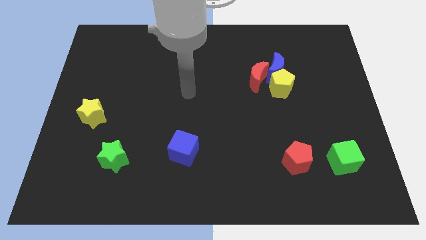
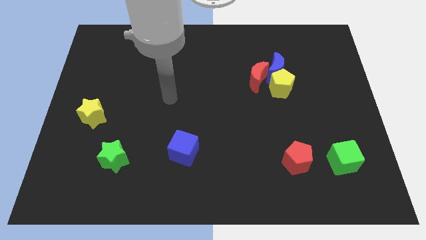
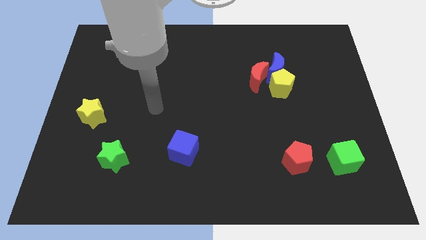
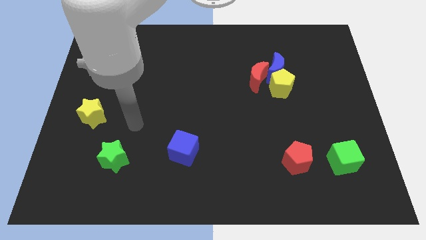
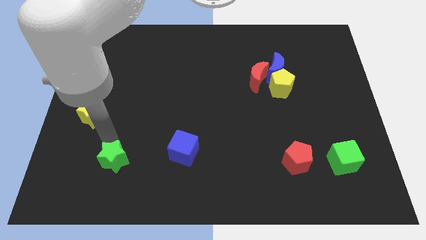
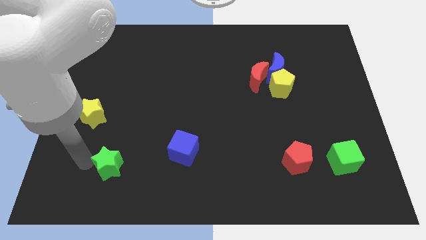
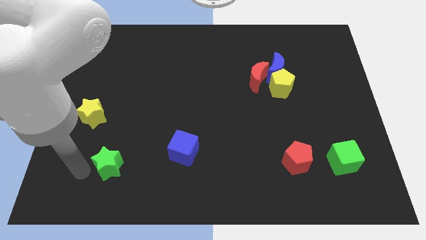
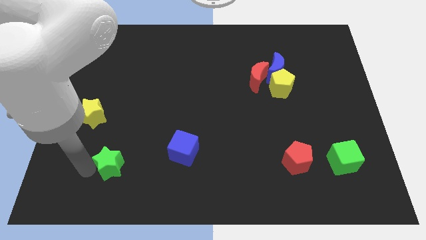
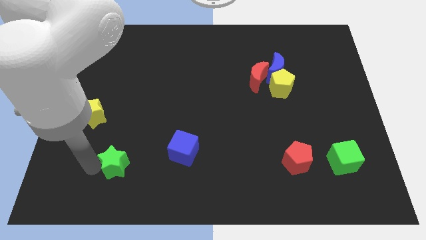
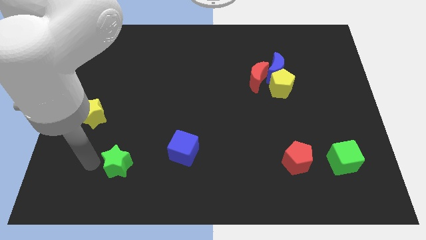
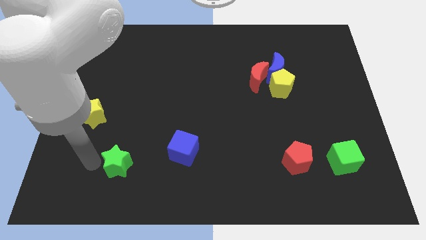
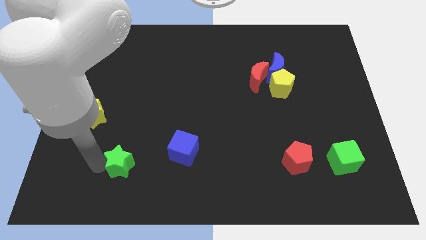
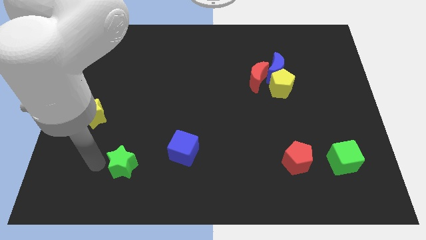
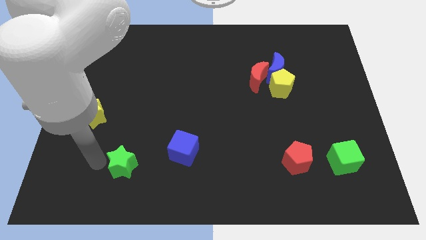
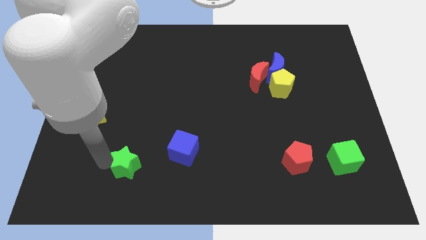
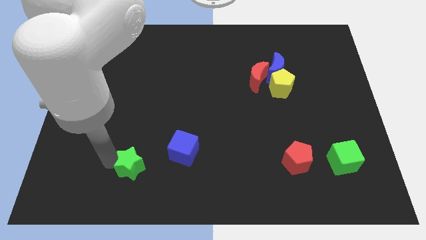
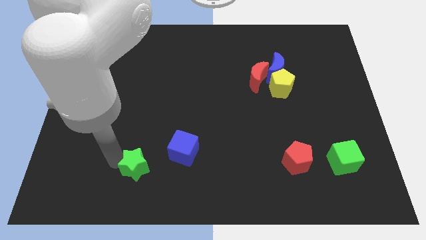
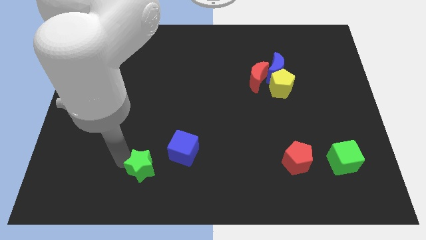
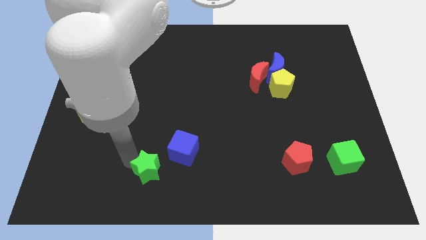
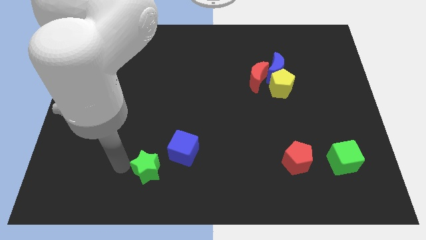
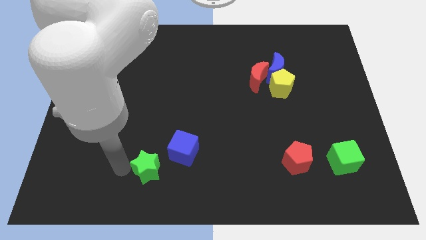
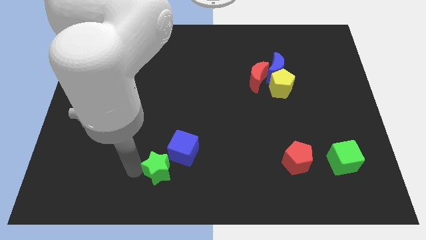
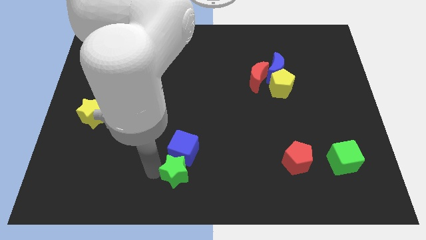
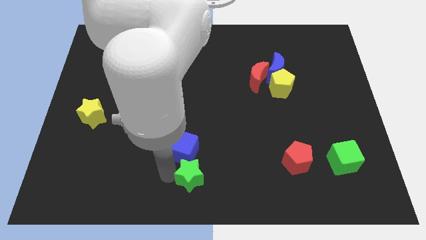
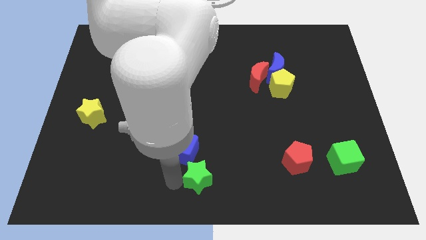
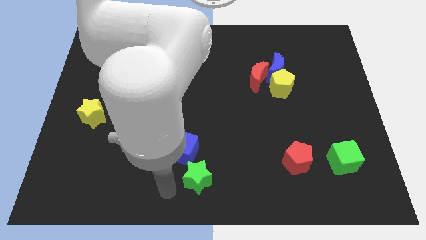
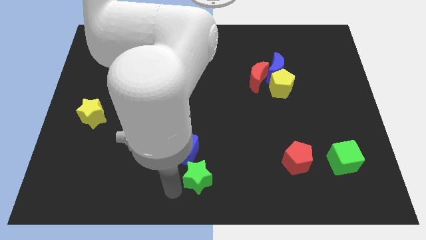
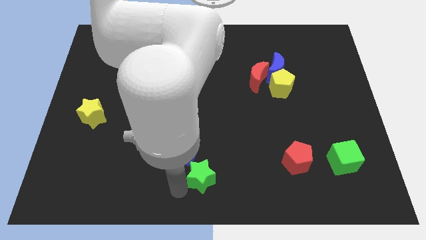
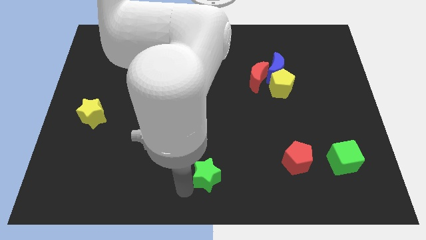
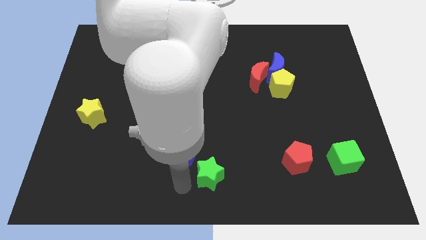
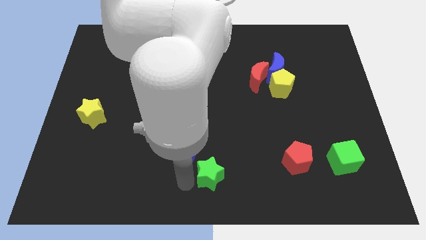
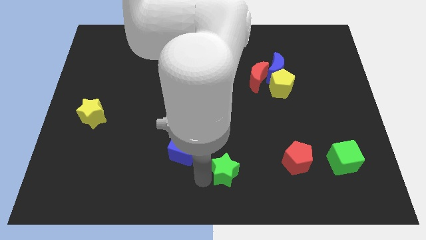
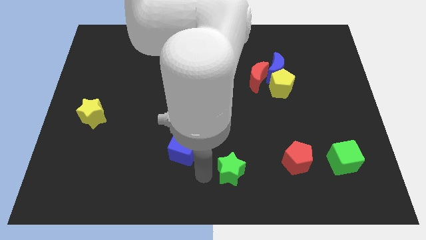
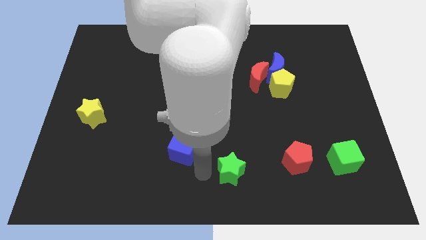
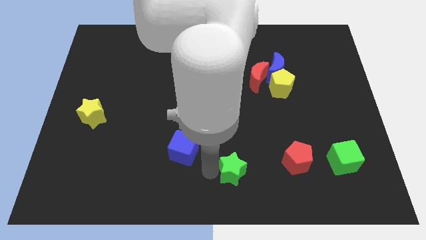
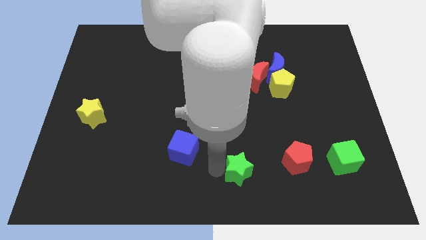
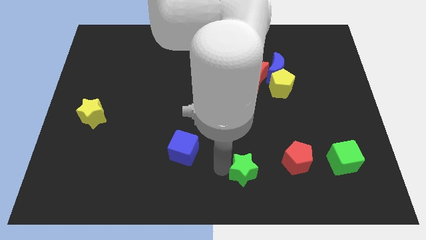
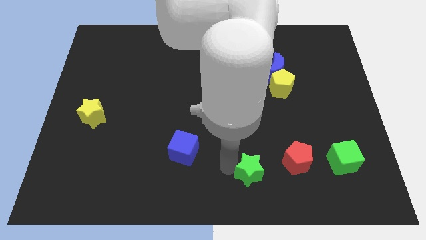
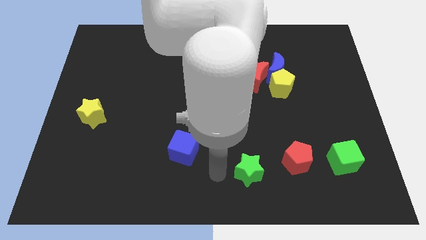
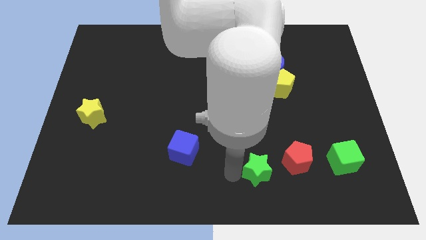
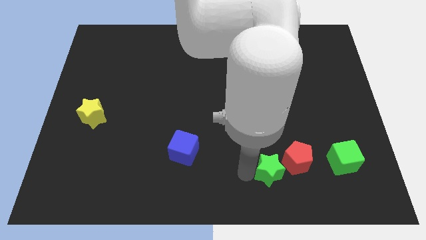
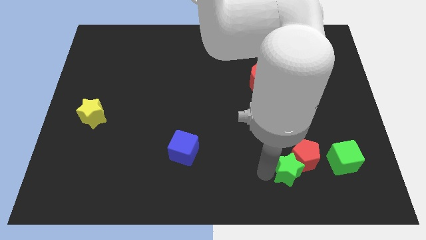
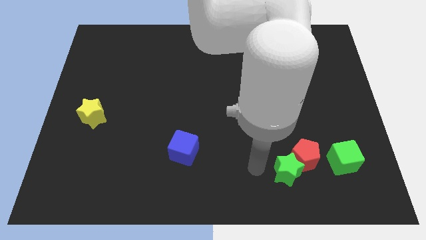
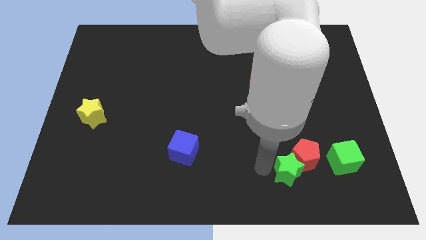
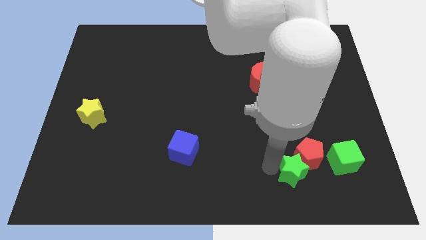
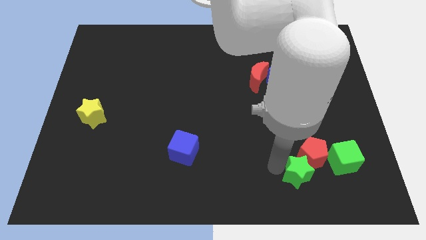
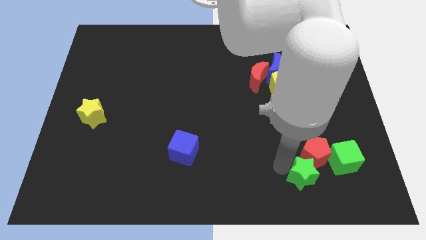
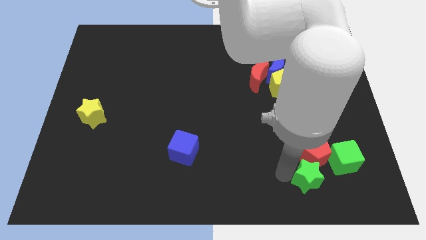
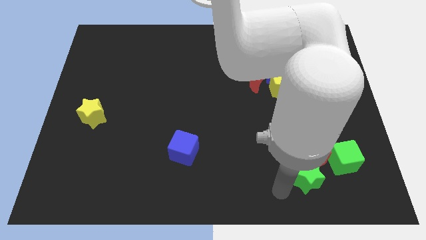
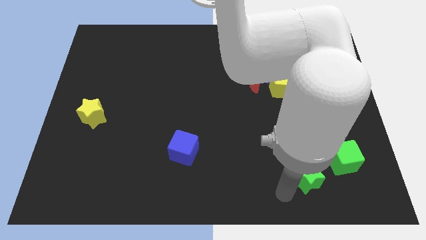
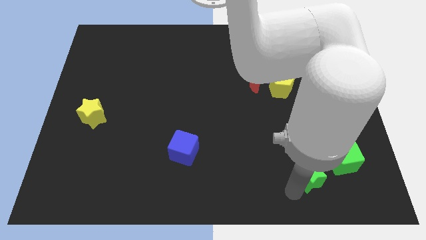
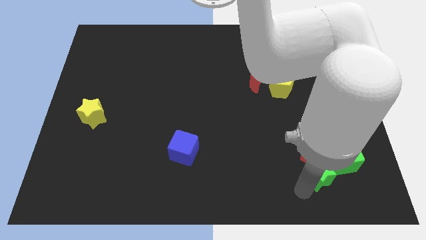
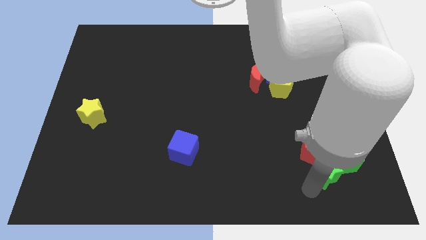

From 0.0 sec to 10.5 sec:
push the green star next to the green cube

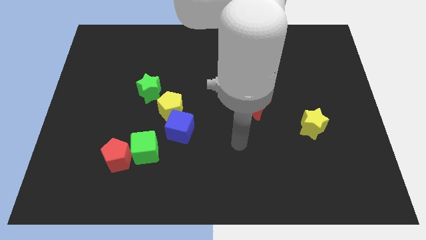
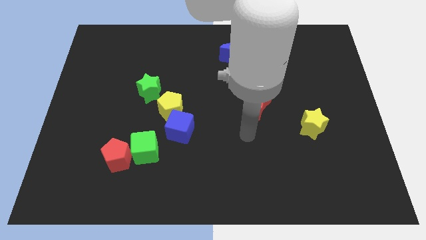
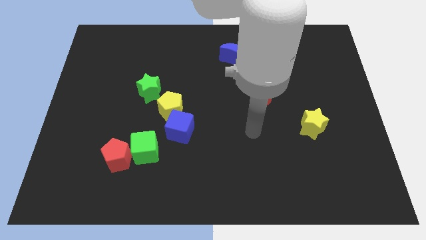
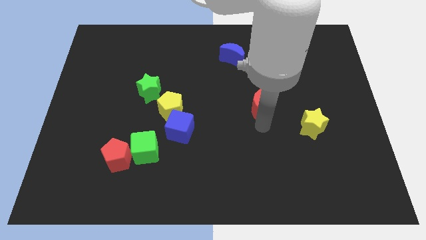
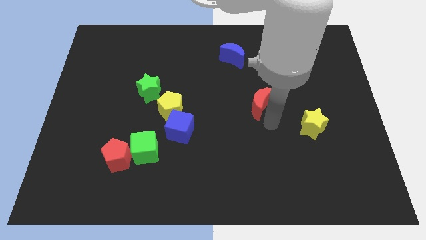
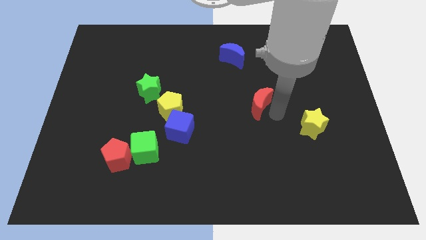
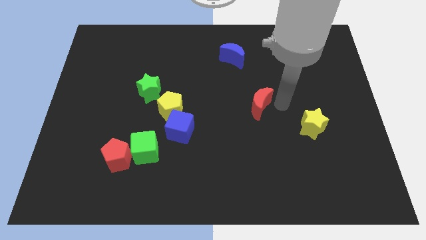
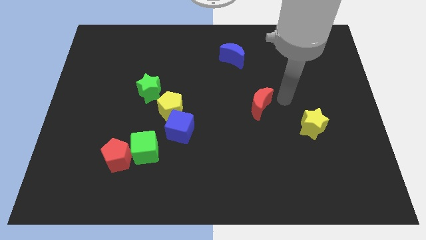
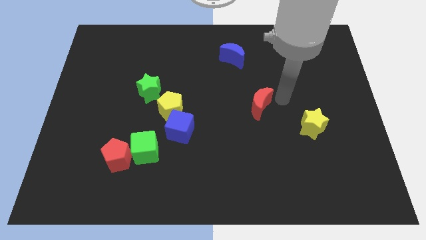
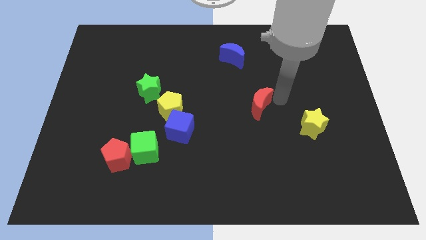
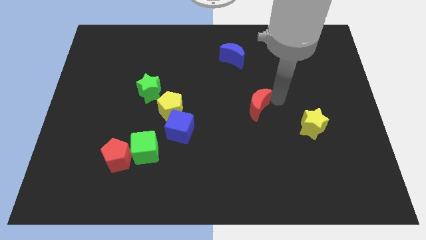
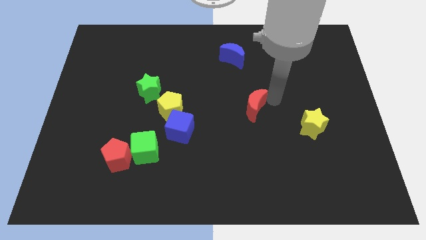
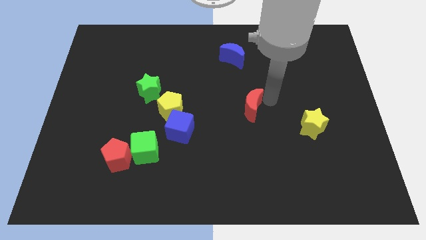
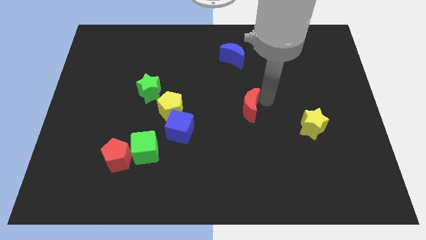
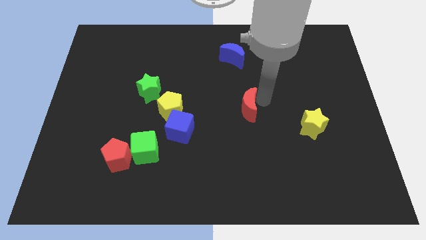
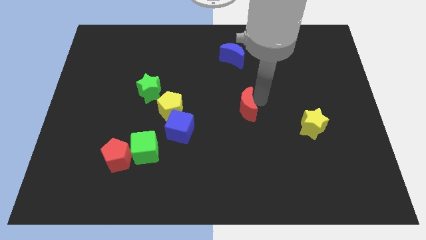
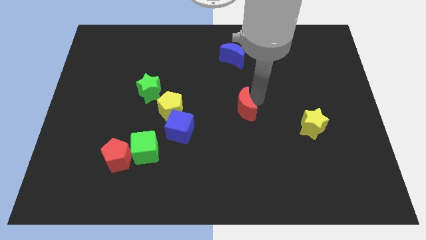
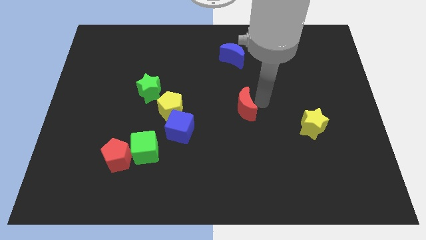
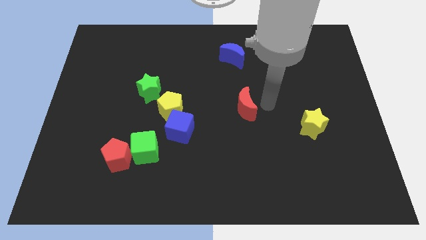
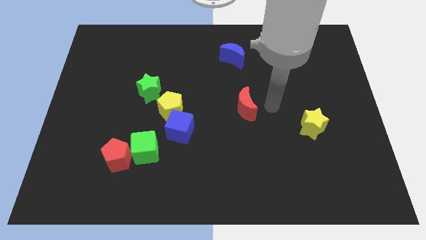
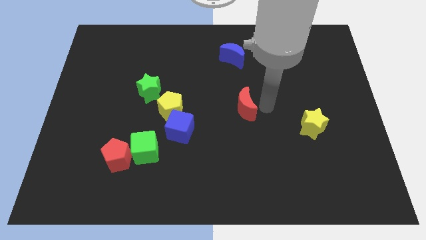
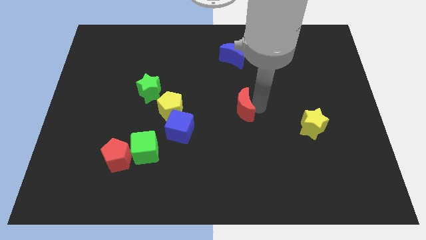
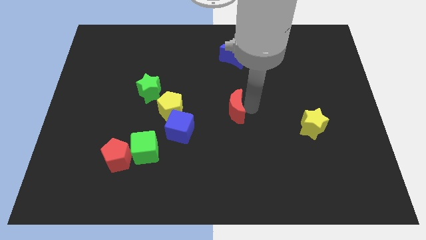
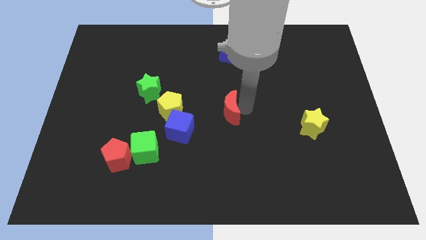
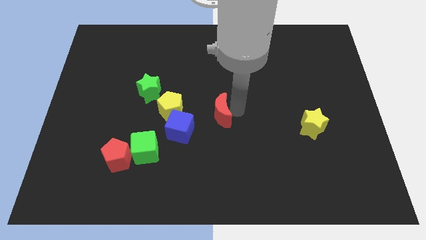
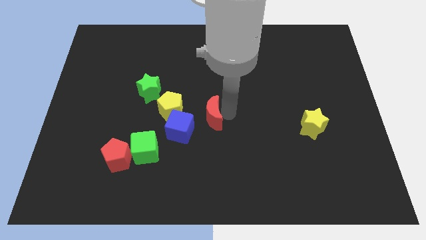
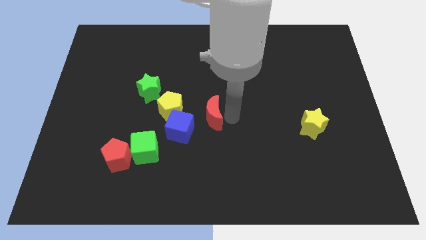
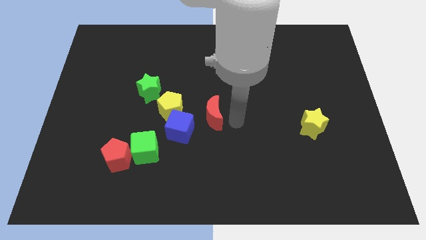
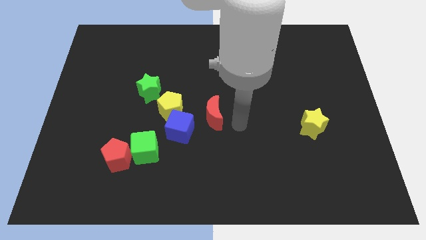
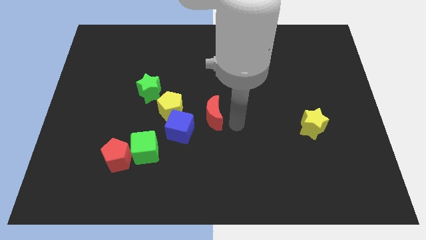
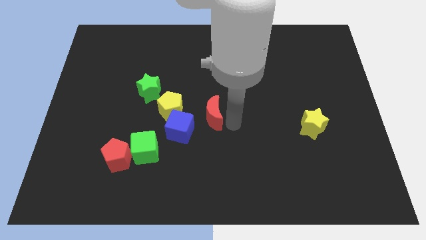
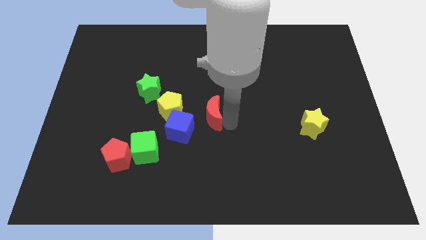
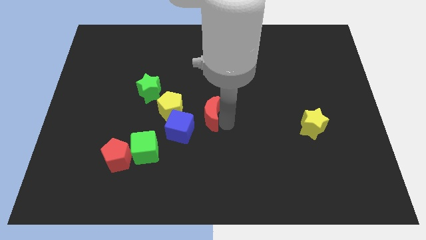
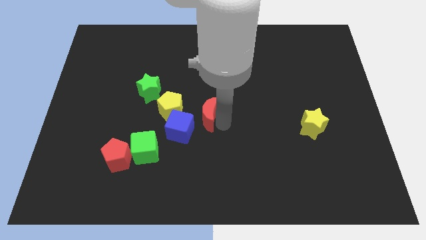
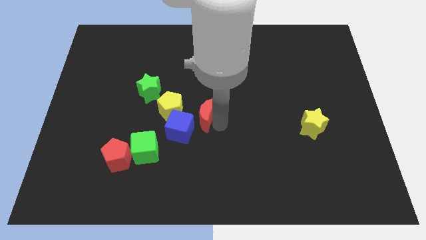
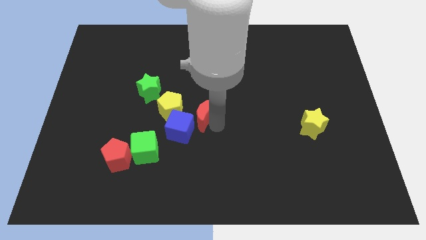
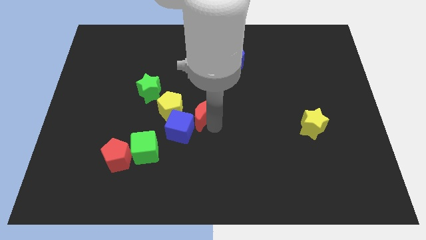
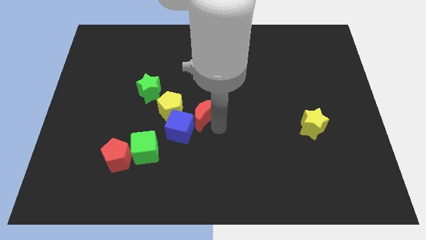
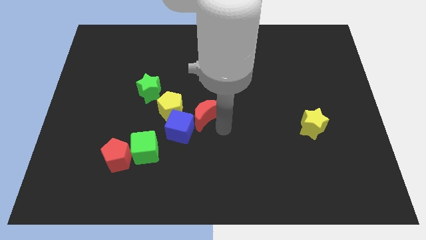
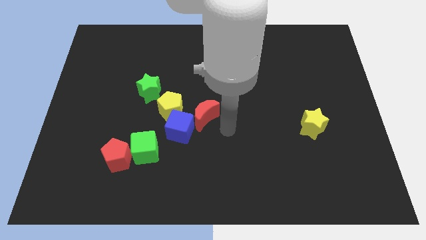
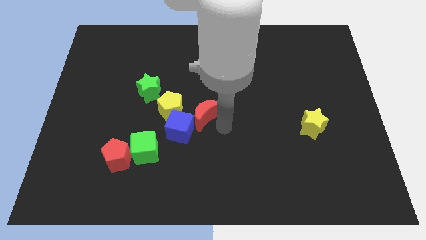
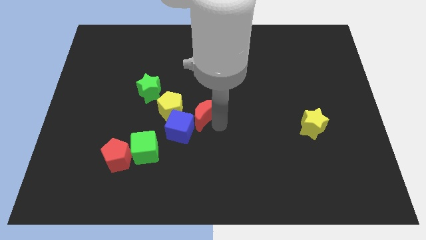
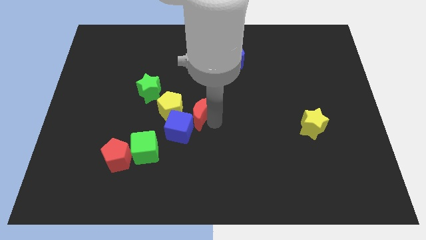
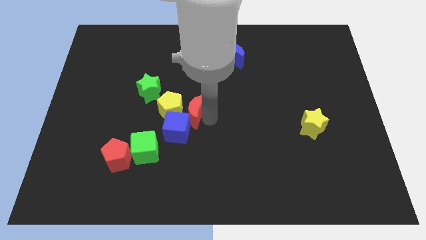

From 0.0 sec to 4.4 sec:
push the red moon close to the yellow pentagon
